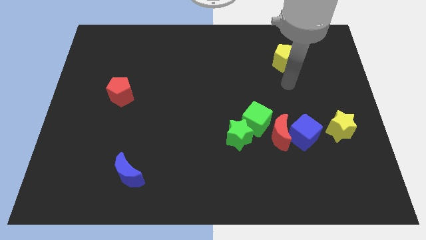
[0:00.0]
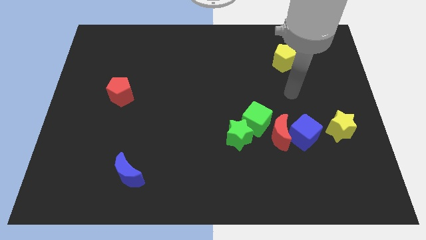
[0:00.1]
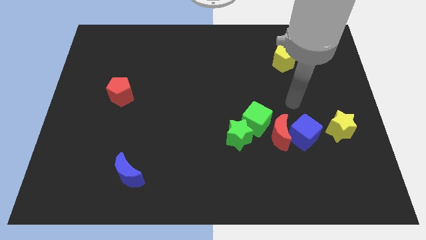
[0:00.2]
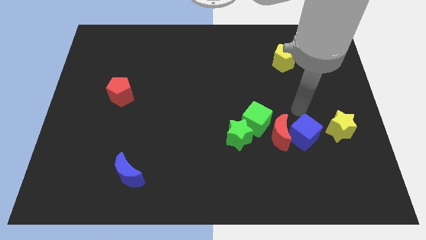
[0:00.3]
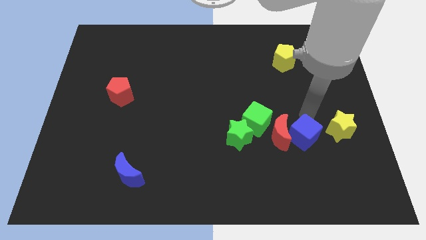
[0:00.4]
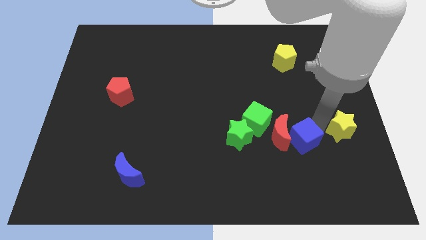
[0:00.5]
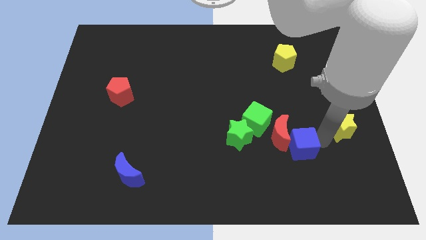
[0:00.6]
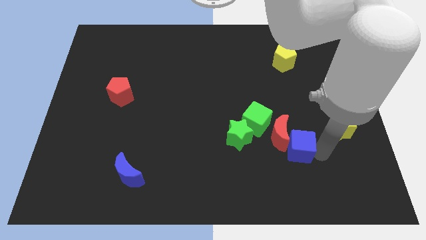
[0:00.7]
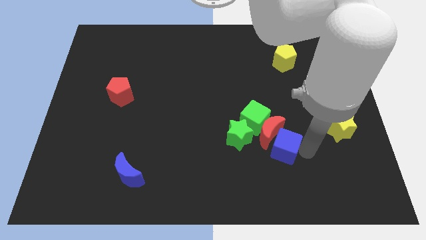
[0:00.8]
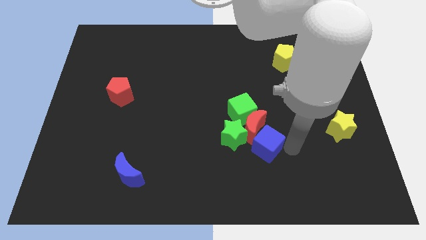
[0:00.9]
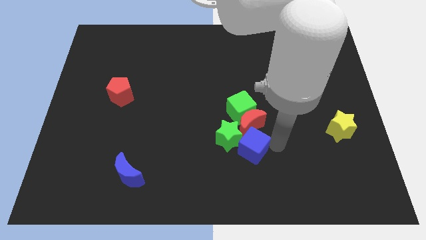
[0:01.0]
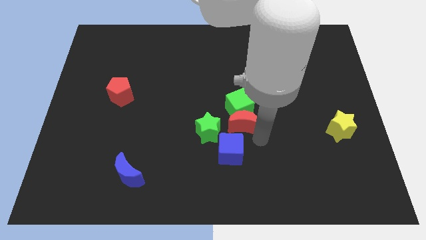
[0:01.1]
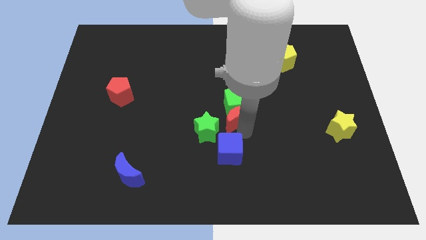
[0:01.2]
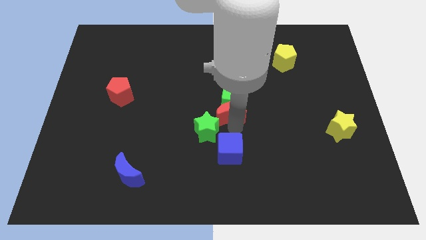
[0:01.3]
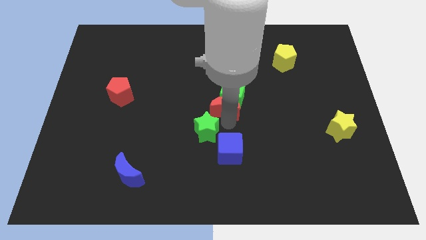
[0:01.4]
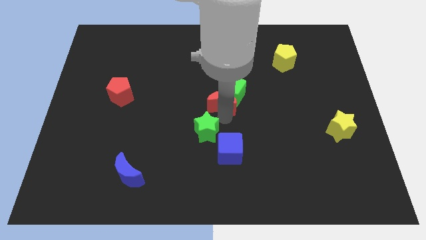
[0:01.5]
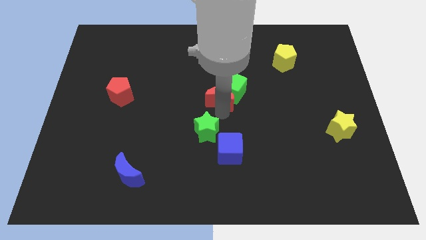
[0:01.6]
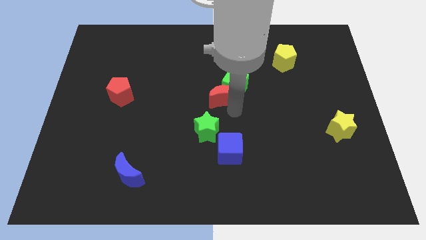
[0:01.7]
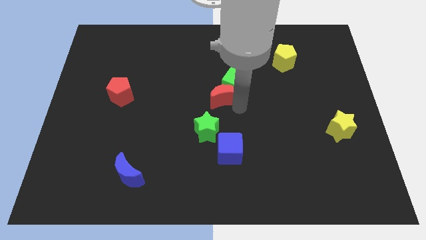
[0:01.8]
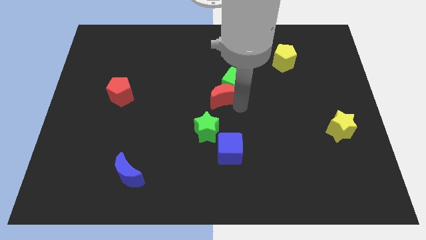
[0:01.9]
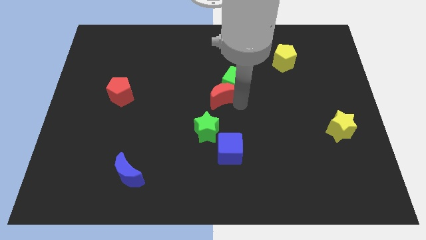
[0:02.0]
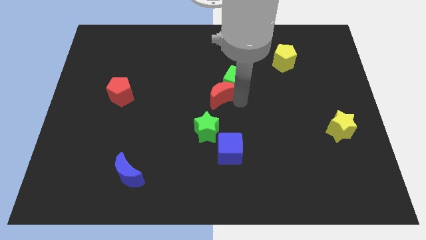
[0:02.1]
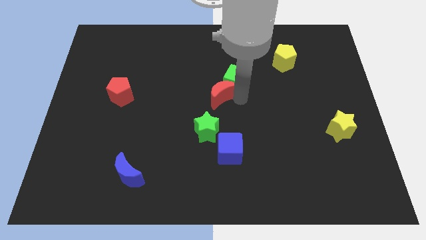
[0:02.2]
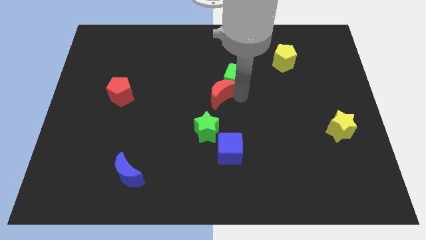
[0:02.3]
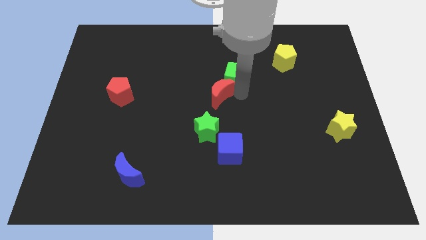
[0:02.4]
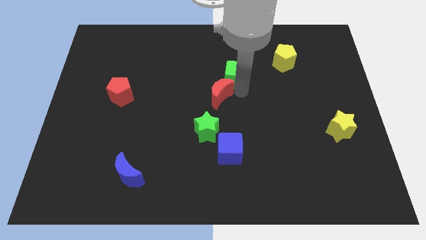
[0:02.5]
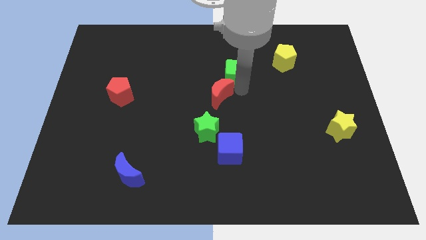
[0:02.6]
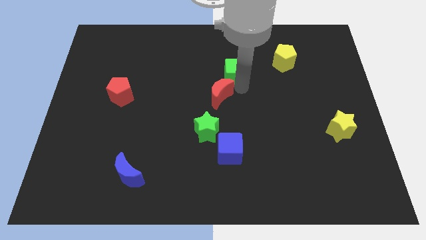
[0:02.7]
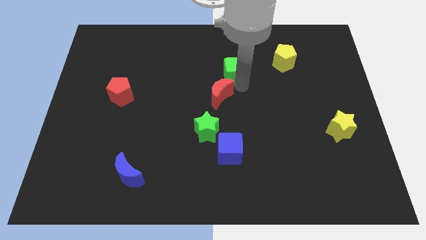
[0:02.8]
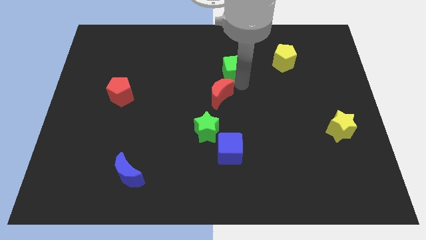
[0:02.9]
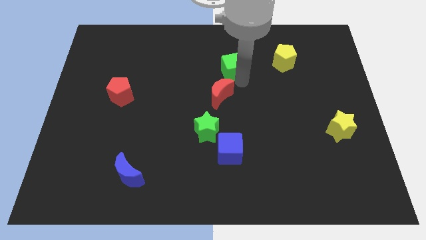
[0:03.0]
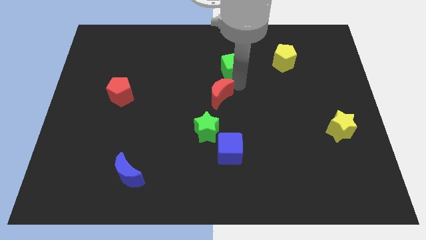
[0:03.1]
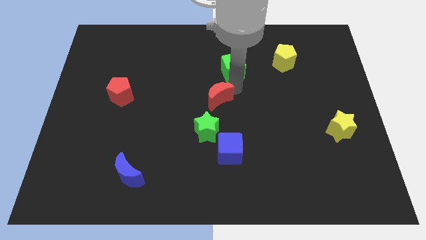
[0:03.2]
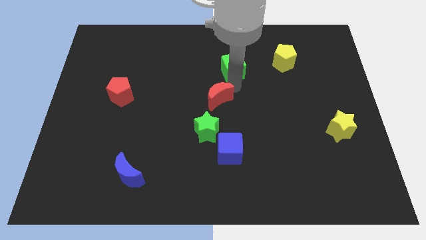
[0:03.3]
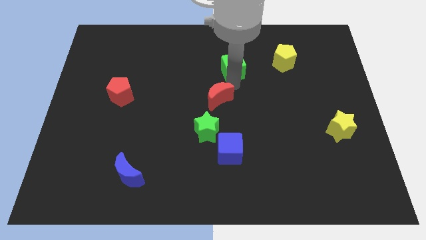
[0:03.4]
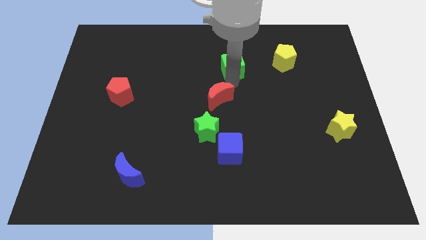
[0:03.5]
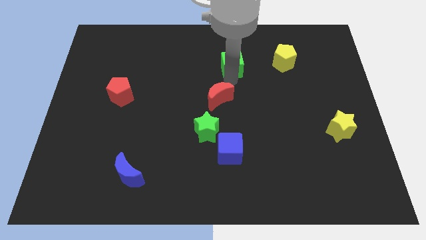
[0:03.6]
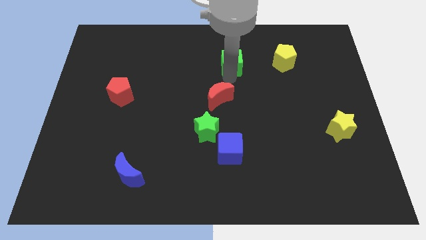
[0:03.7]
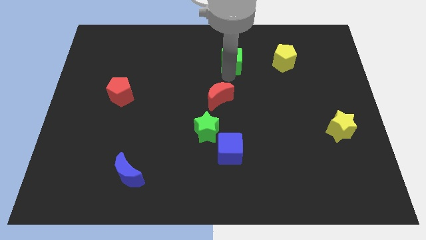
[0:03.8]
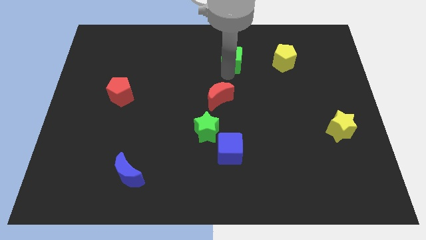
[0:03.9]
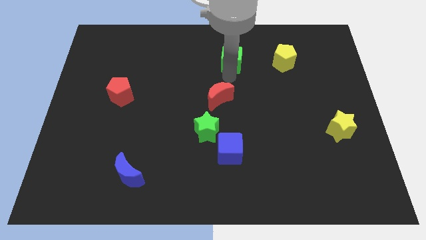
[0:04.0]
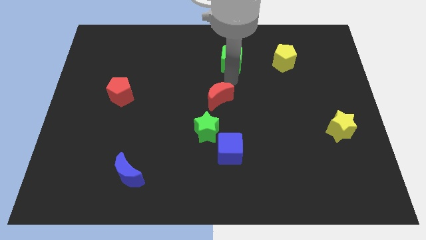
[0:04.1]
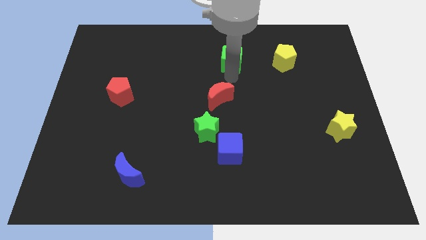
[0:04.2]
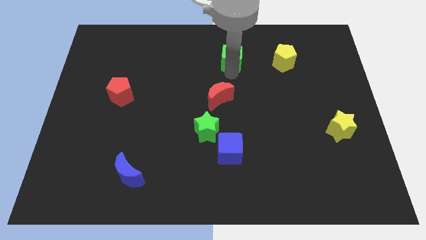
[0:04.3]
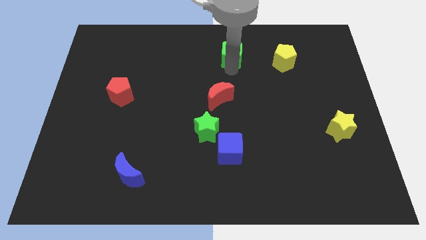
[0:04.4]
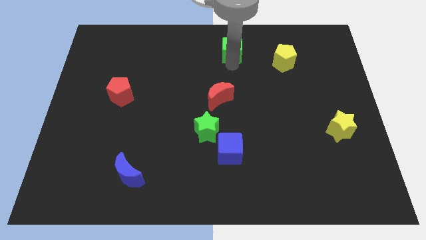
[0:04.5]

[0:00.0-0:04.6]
push the green cube to the top side

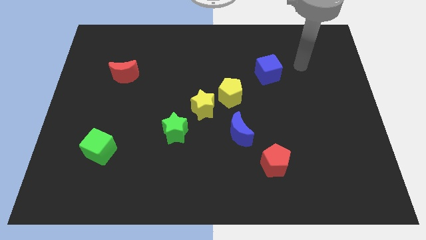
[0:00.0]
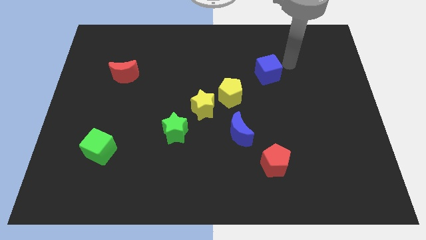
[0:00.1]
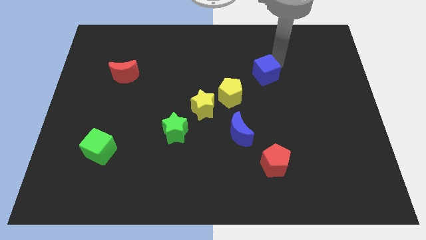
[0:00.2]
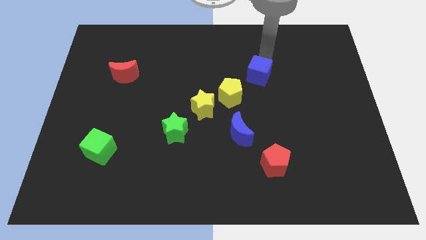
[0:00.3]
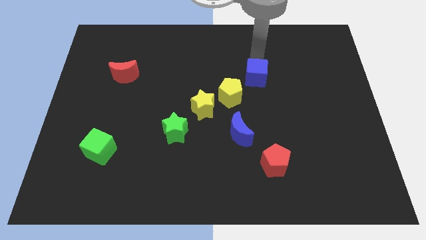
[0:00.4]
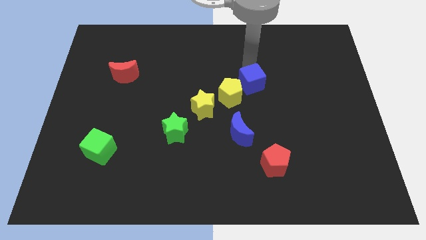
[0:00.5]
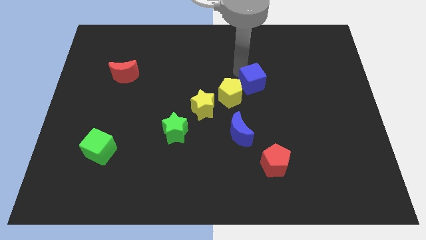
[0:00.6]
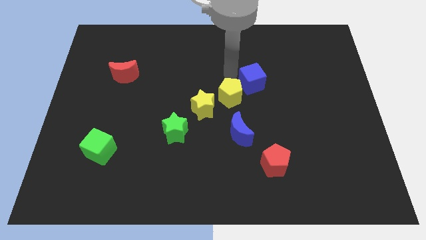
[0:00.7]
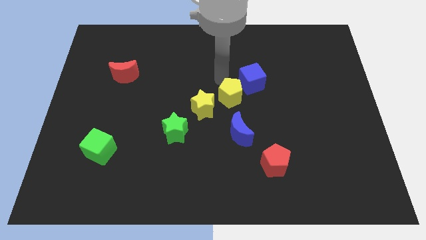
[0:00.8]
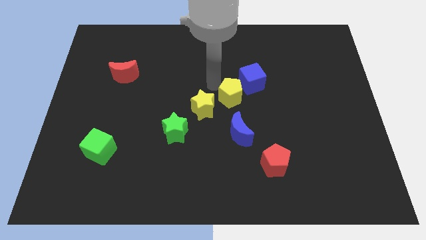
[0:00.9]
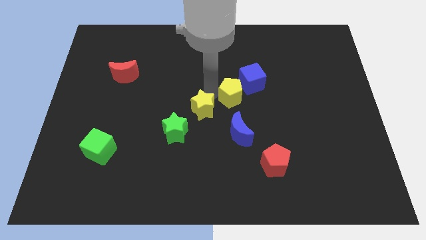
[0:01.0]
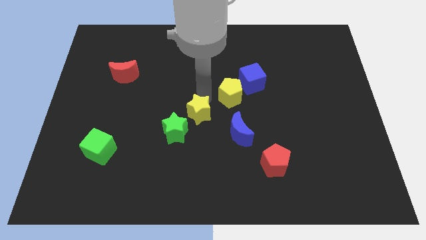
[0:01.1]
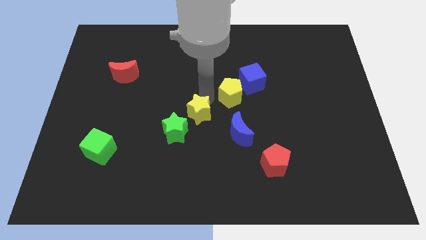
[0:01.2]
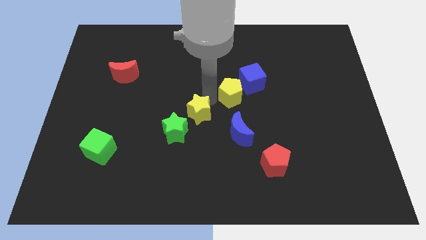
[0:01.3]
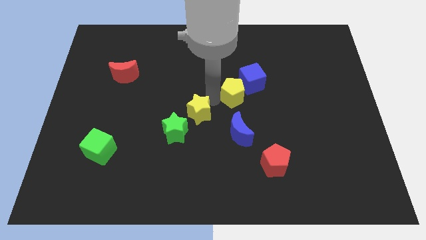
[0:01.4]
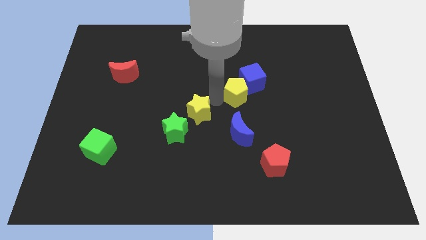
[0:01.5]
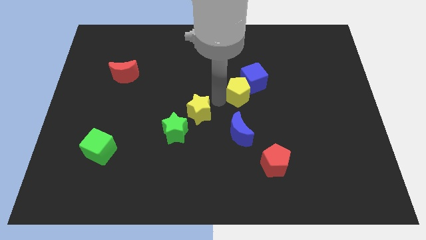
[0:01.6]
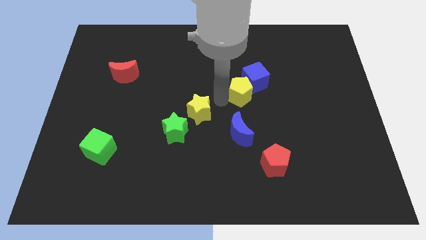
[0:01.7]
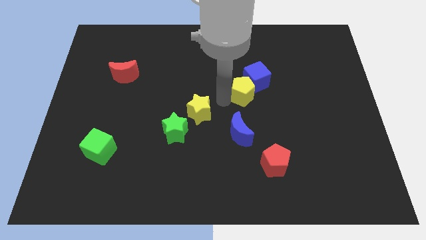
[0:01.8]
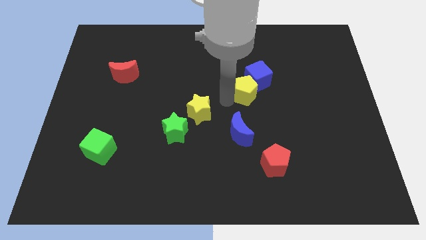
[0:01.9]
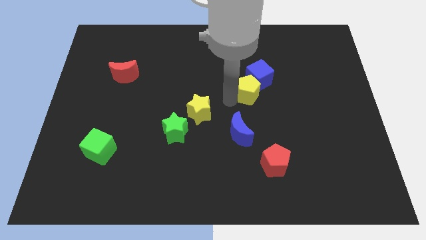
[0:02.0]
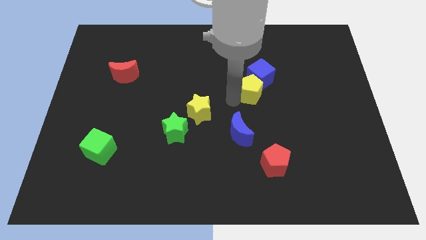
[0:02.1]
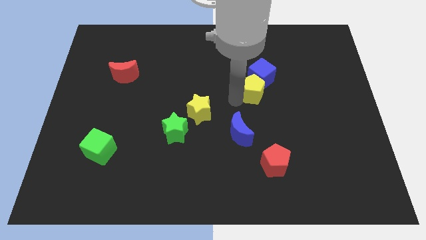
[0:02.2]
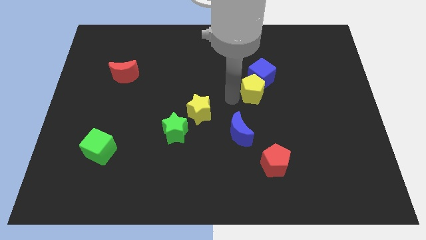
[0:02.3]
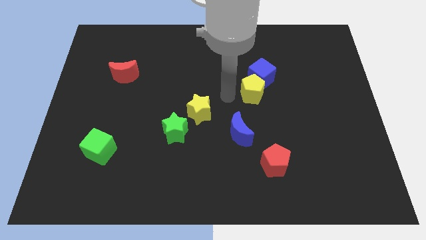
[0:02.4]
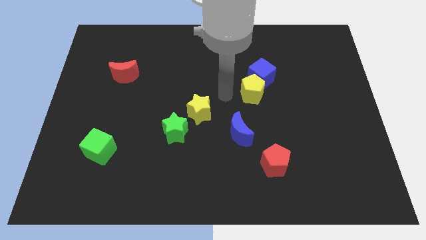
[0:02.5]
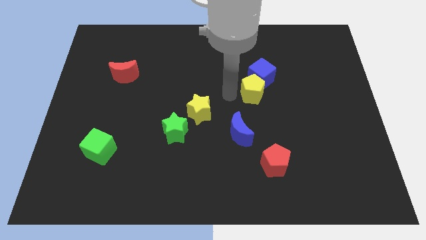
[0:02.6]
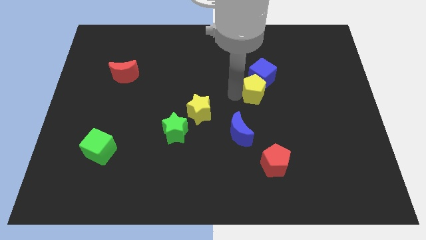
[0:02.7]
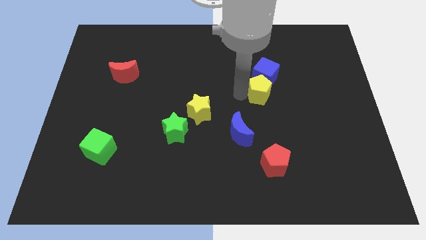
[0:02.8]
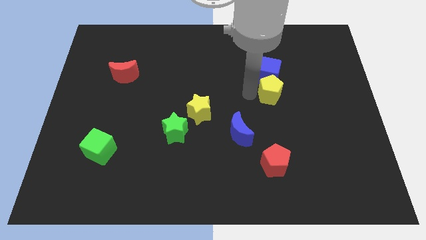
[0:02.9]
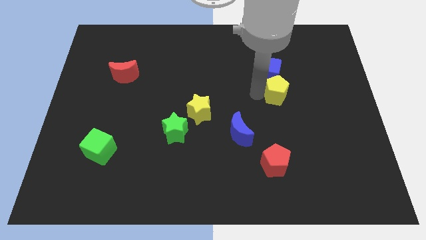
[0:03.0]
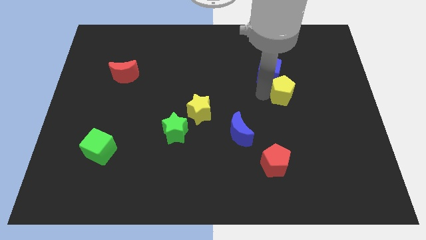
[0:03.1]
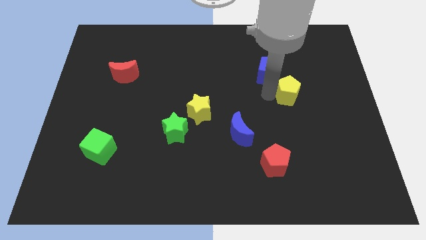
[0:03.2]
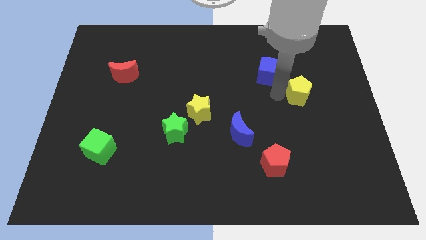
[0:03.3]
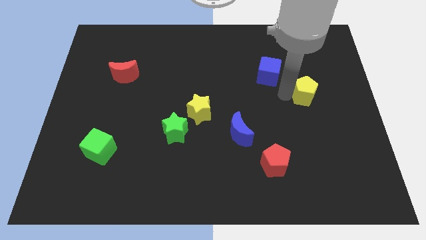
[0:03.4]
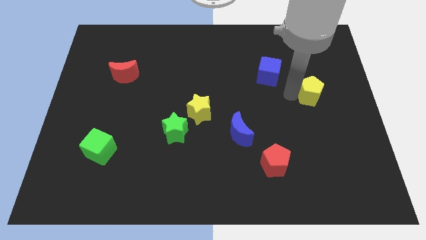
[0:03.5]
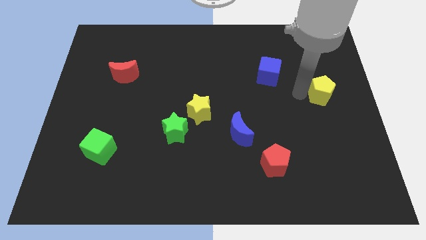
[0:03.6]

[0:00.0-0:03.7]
put the yellow pentagon to the center right

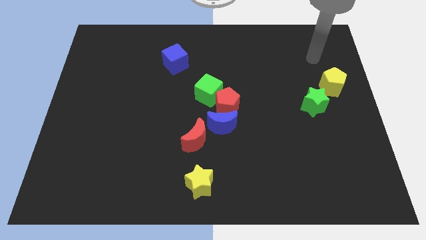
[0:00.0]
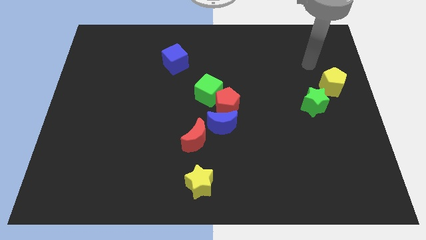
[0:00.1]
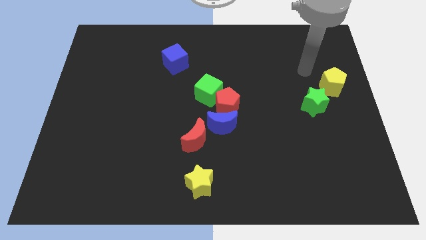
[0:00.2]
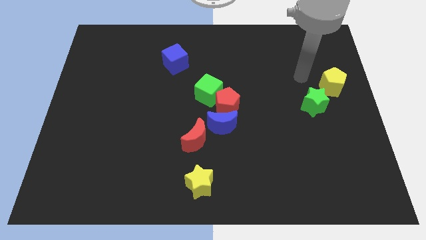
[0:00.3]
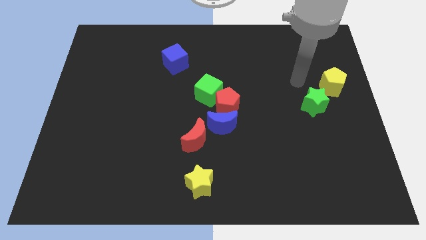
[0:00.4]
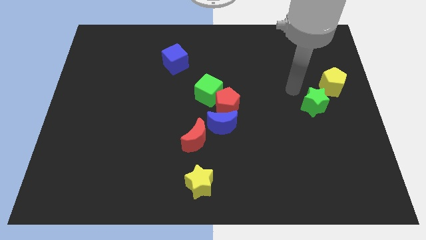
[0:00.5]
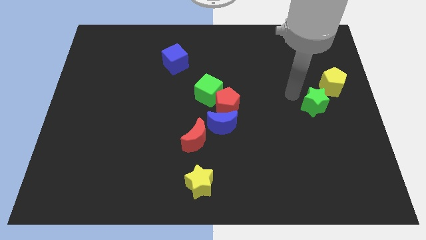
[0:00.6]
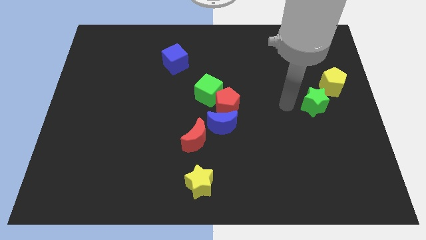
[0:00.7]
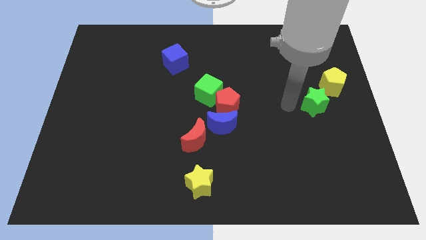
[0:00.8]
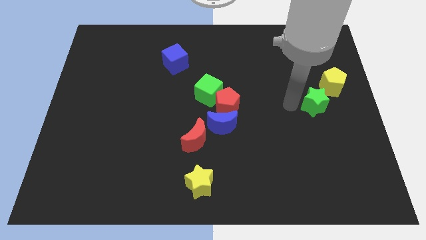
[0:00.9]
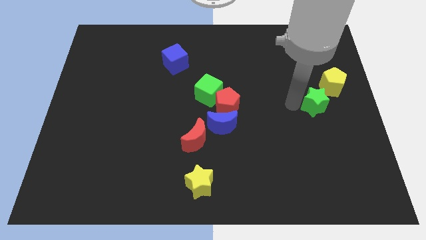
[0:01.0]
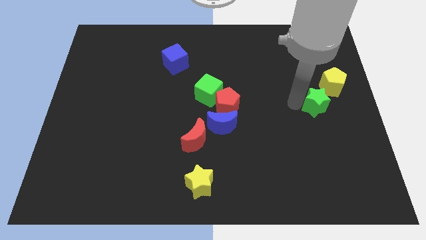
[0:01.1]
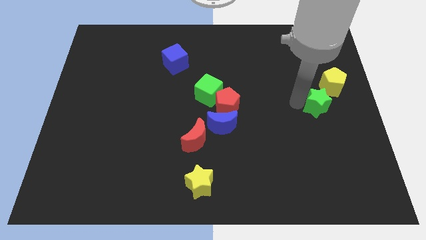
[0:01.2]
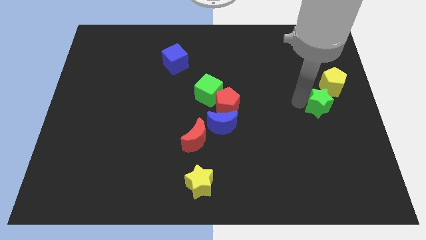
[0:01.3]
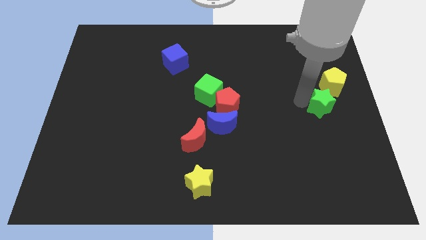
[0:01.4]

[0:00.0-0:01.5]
move the green star to the center right
